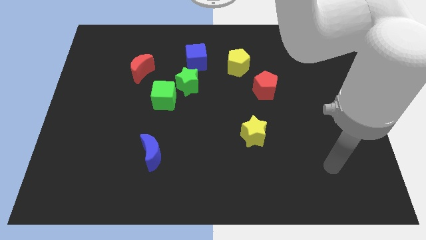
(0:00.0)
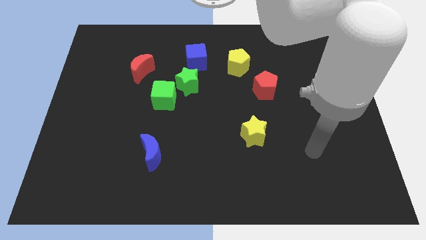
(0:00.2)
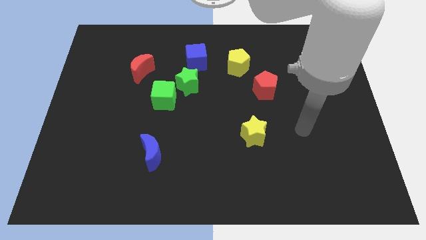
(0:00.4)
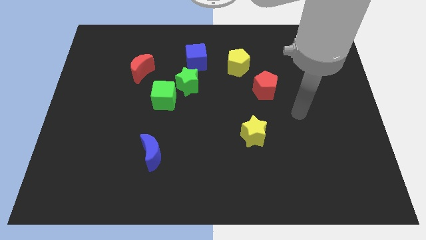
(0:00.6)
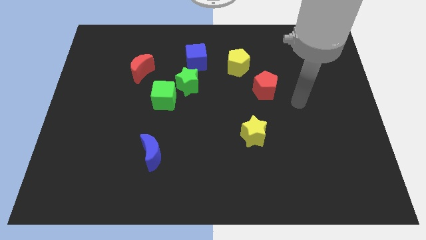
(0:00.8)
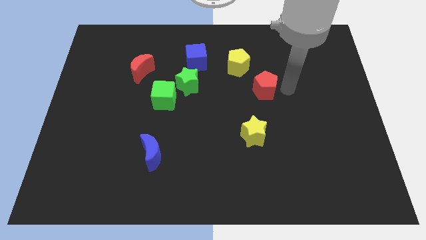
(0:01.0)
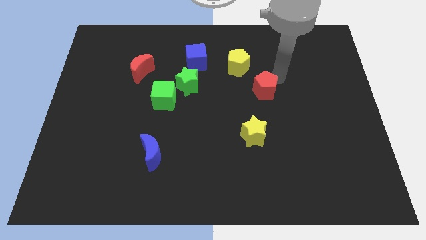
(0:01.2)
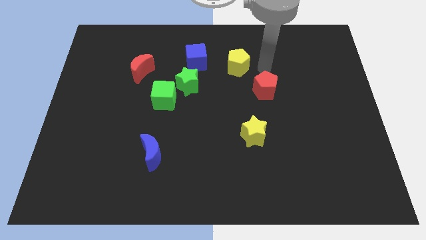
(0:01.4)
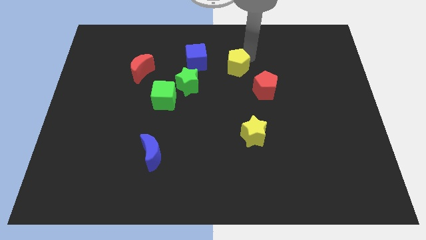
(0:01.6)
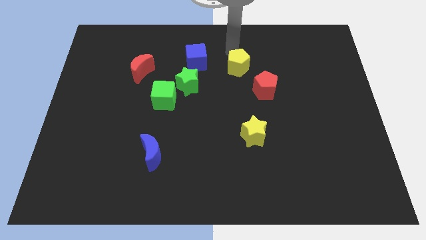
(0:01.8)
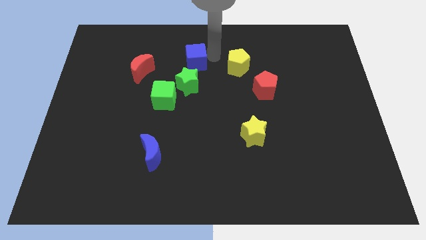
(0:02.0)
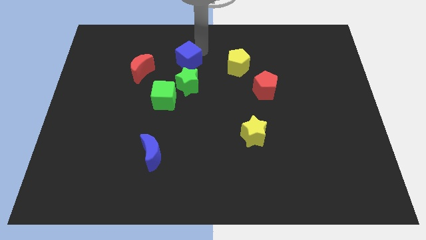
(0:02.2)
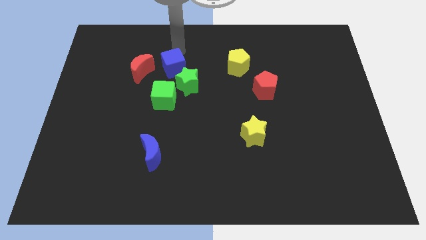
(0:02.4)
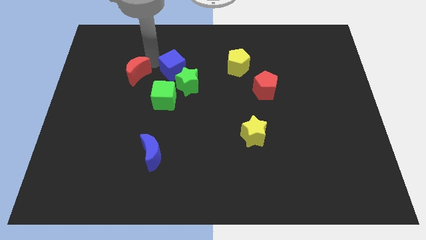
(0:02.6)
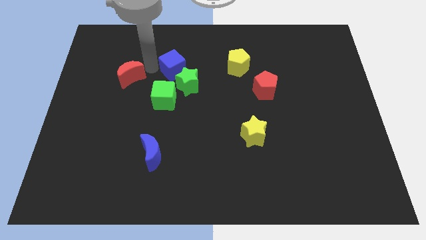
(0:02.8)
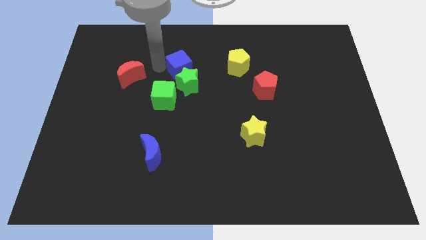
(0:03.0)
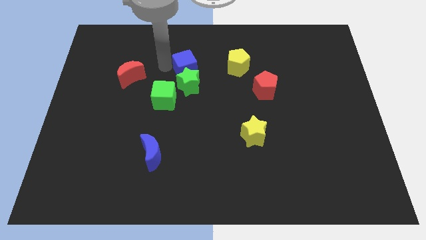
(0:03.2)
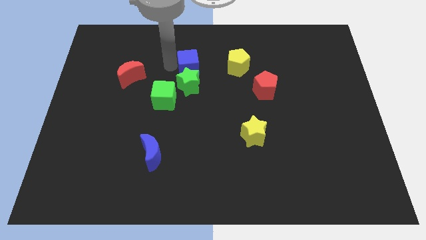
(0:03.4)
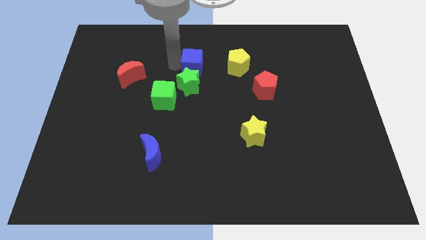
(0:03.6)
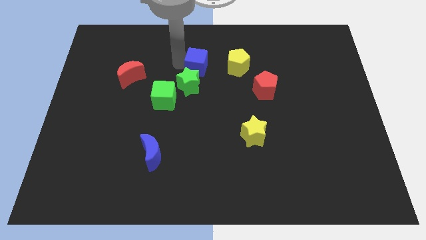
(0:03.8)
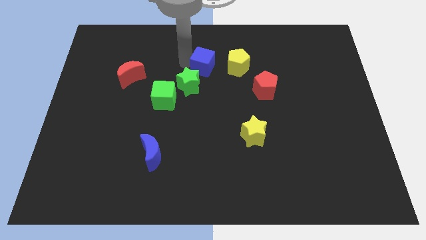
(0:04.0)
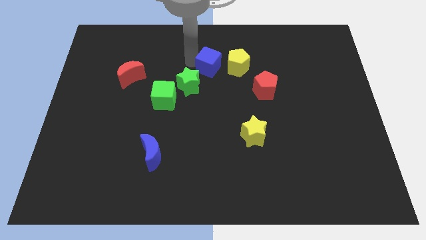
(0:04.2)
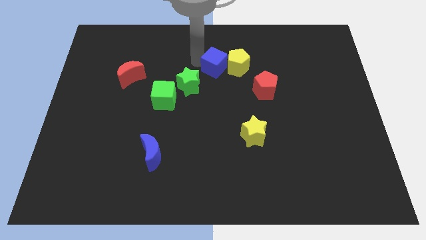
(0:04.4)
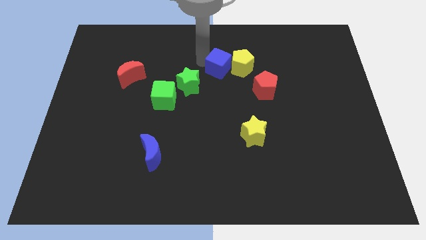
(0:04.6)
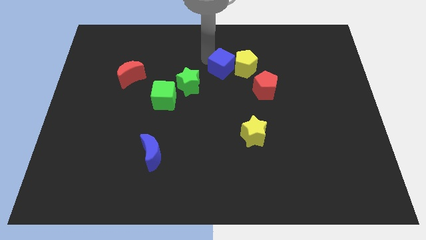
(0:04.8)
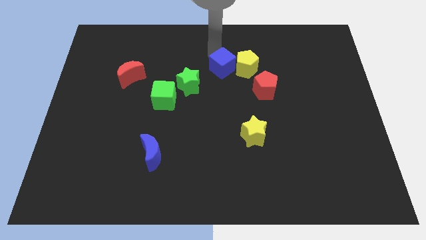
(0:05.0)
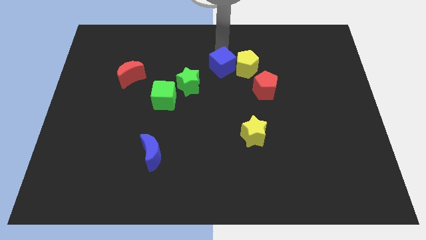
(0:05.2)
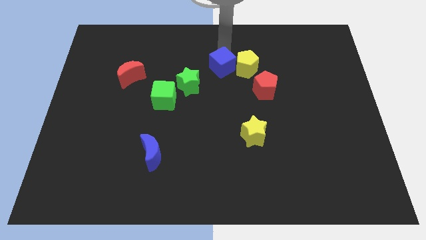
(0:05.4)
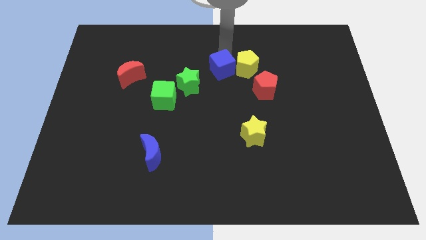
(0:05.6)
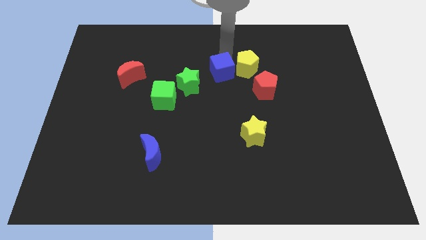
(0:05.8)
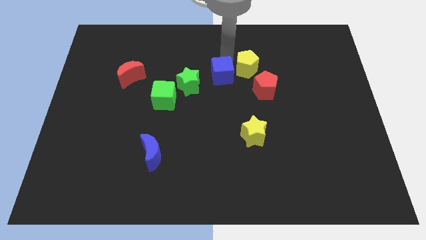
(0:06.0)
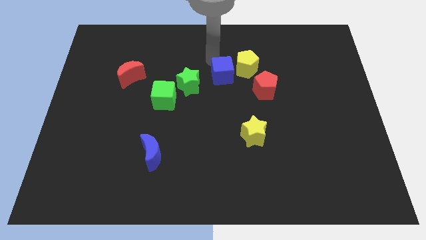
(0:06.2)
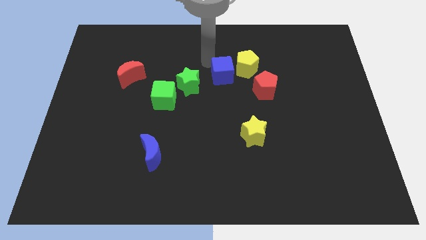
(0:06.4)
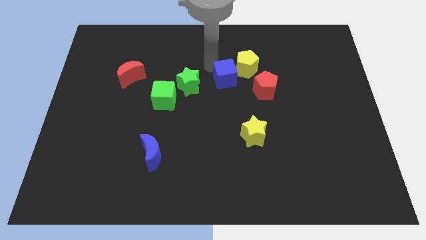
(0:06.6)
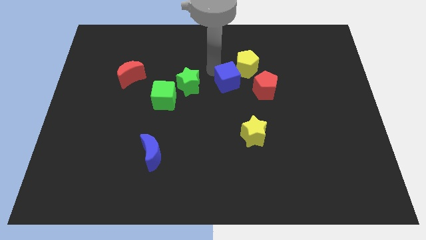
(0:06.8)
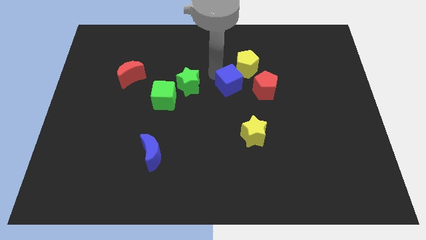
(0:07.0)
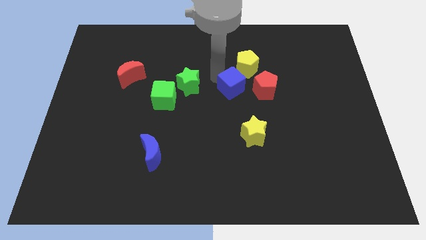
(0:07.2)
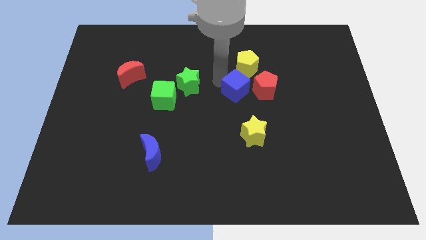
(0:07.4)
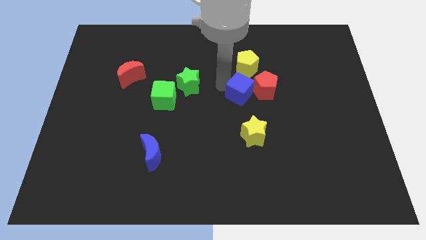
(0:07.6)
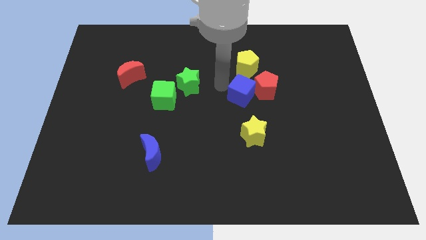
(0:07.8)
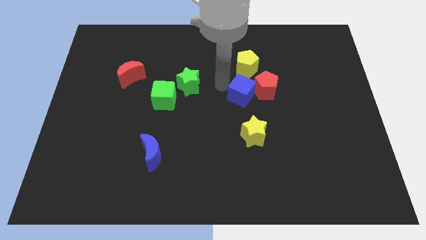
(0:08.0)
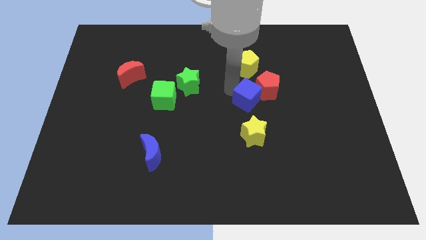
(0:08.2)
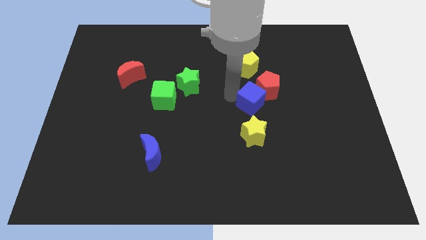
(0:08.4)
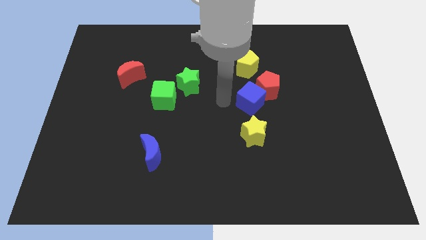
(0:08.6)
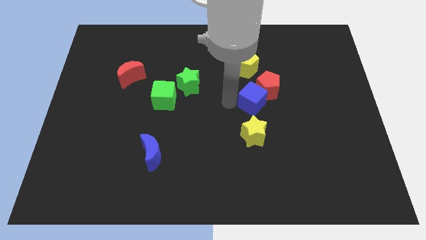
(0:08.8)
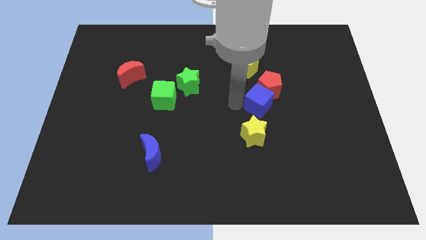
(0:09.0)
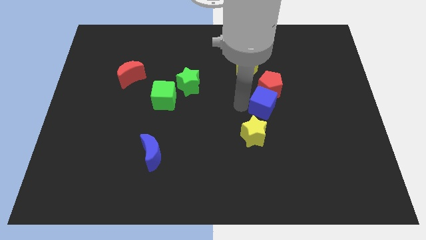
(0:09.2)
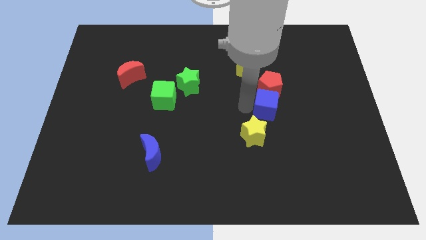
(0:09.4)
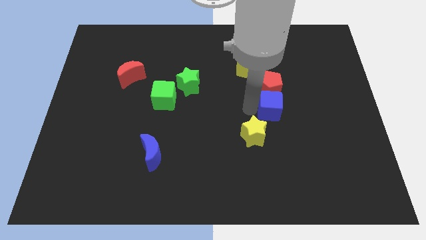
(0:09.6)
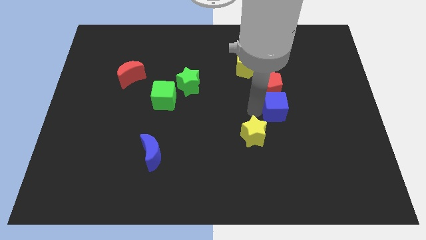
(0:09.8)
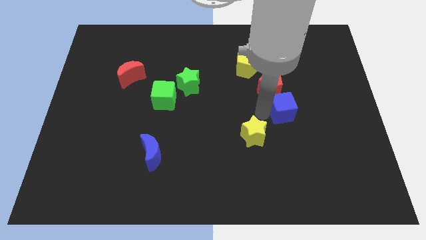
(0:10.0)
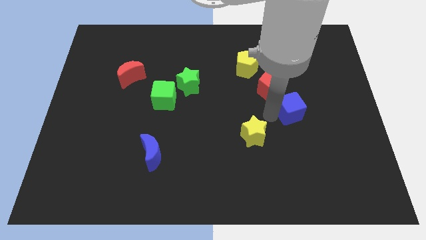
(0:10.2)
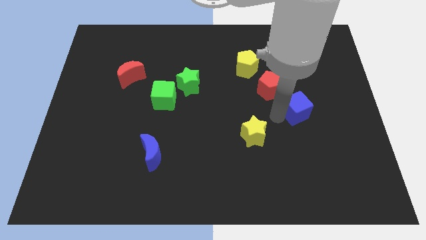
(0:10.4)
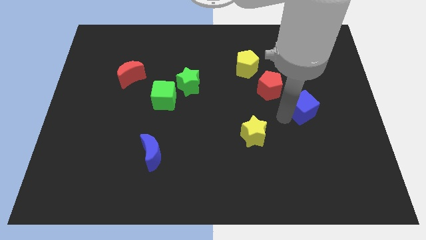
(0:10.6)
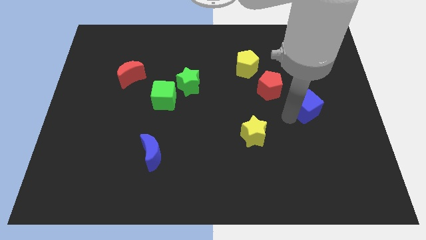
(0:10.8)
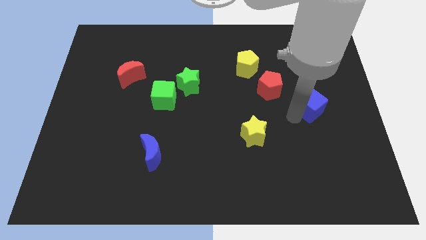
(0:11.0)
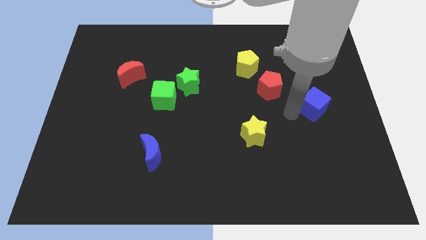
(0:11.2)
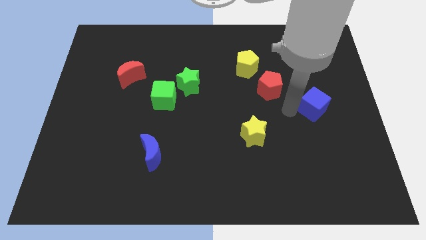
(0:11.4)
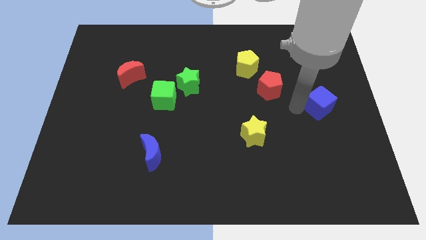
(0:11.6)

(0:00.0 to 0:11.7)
slide the blue cube to the right side of the board

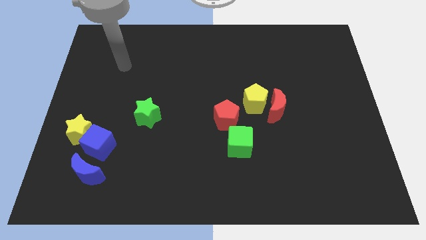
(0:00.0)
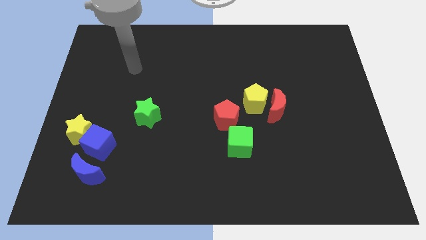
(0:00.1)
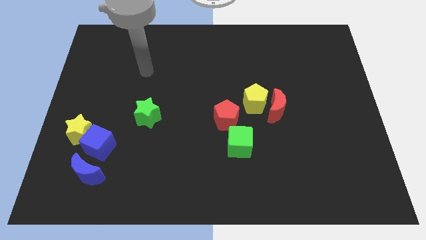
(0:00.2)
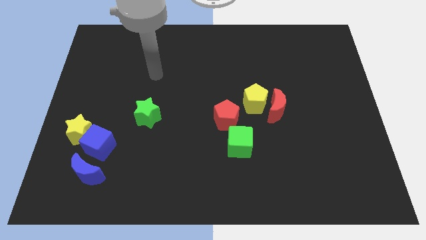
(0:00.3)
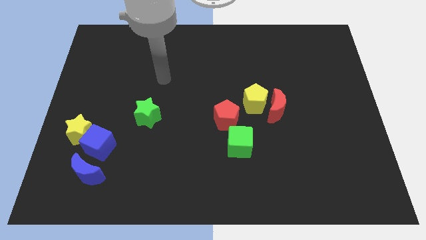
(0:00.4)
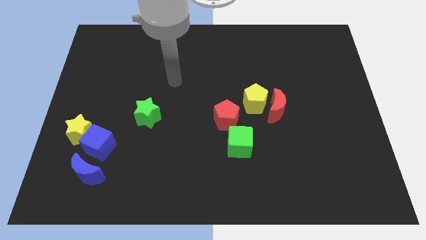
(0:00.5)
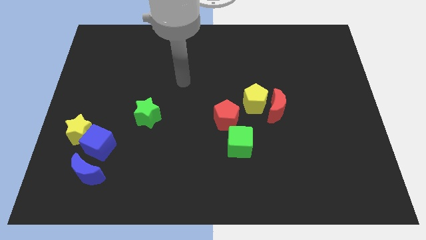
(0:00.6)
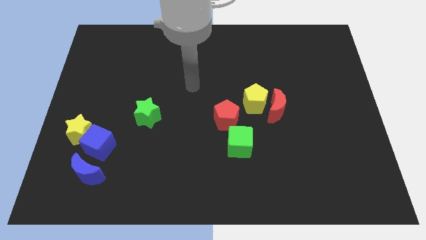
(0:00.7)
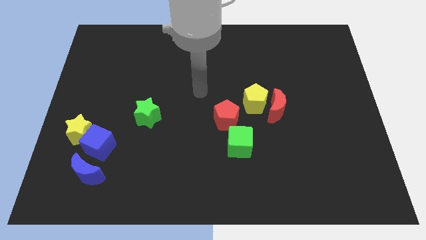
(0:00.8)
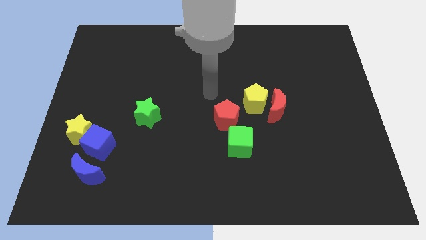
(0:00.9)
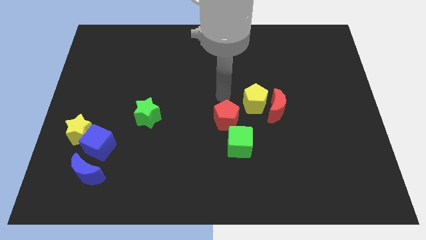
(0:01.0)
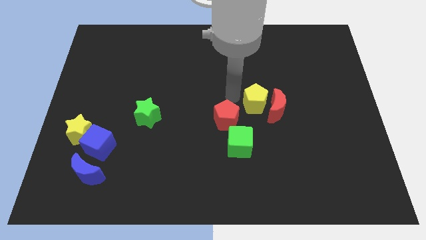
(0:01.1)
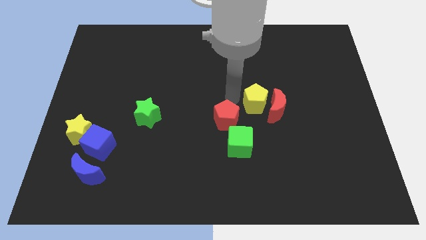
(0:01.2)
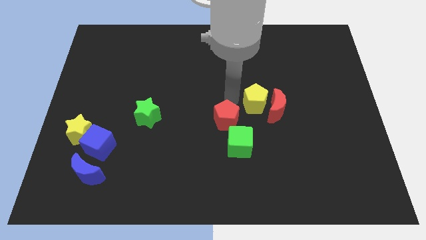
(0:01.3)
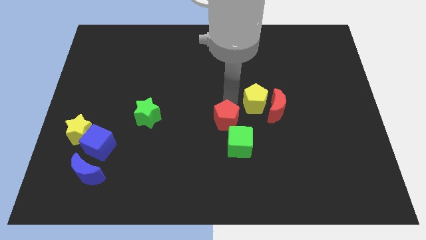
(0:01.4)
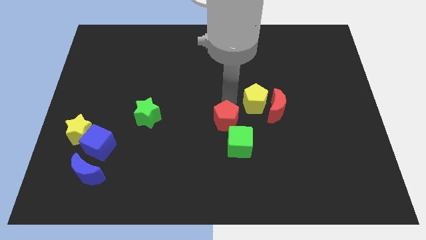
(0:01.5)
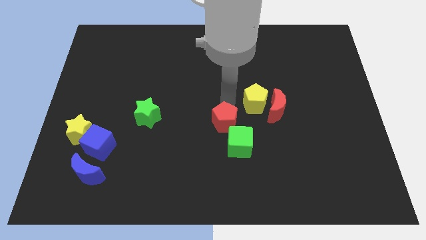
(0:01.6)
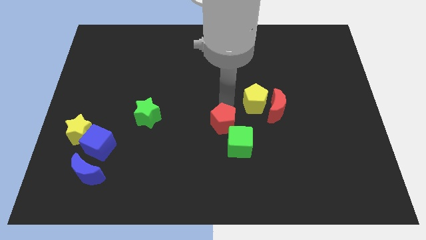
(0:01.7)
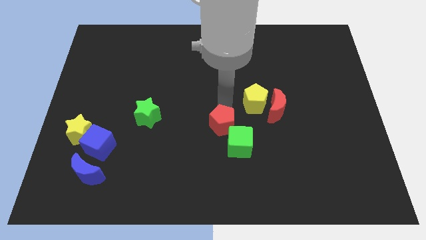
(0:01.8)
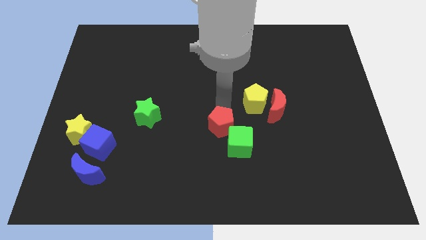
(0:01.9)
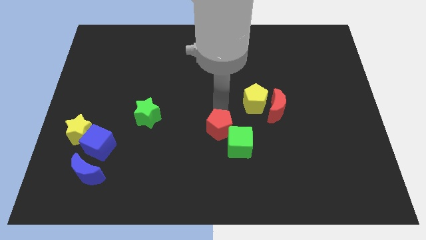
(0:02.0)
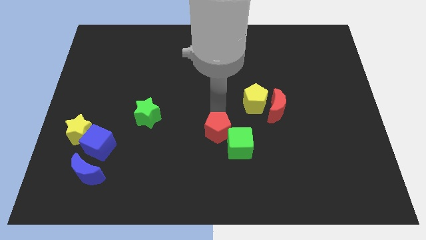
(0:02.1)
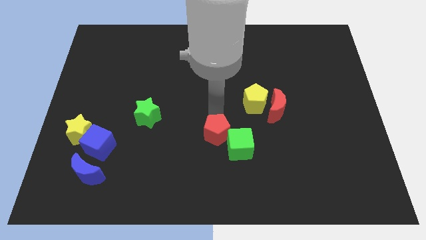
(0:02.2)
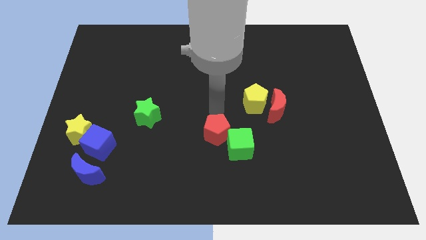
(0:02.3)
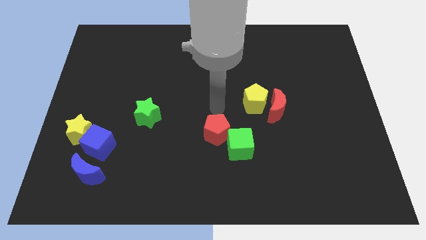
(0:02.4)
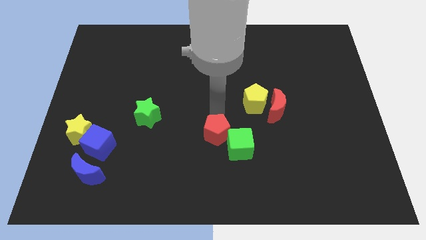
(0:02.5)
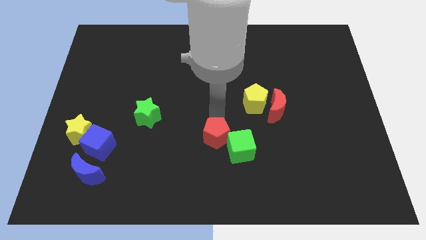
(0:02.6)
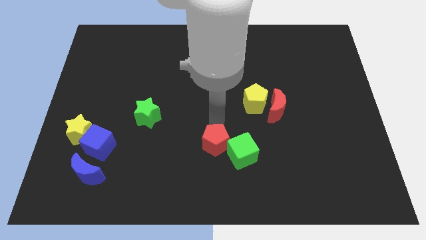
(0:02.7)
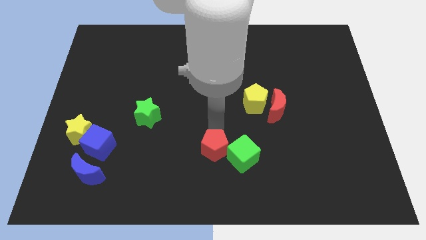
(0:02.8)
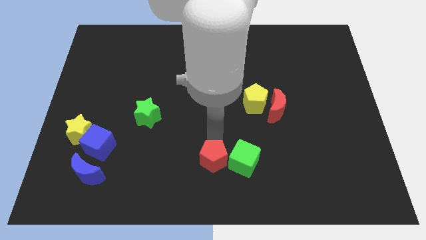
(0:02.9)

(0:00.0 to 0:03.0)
move the red pentagon to the bottom
